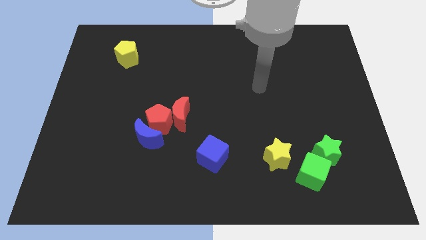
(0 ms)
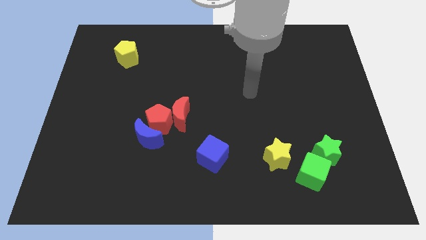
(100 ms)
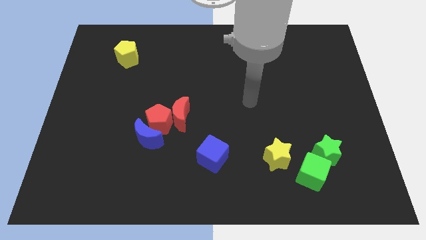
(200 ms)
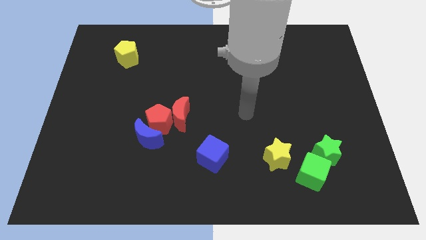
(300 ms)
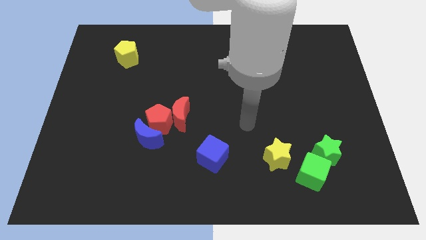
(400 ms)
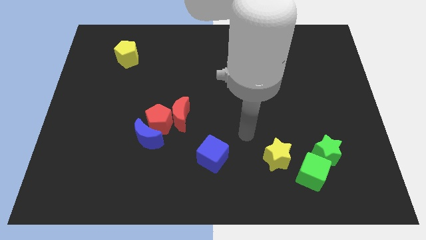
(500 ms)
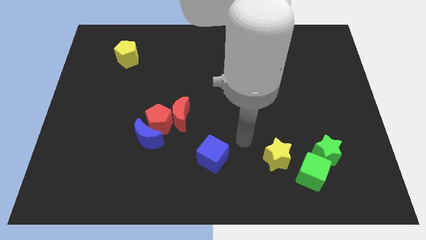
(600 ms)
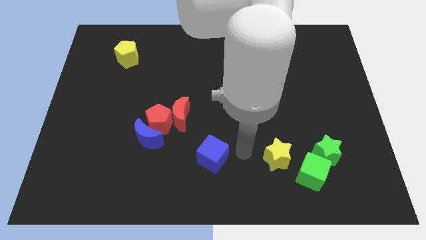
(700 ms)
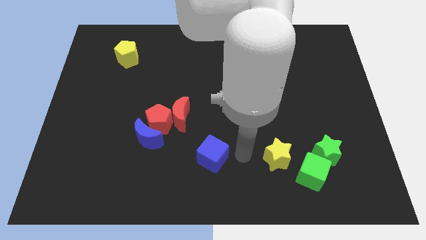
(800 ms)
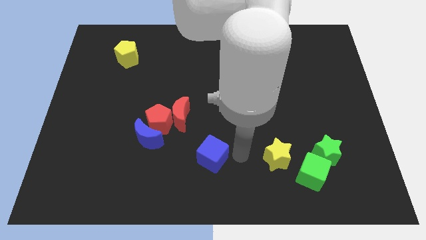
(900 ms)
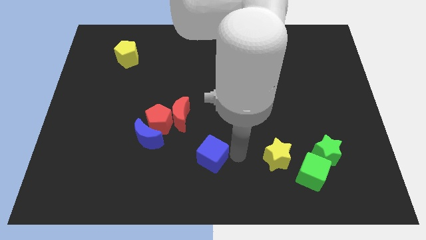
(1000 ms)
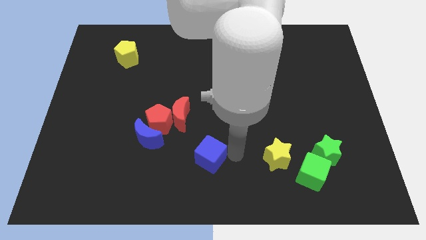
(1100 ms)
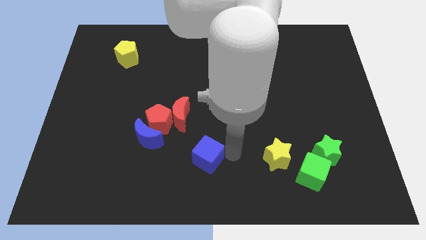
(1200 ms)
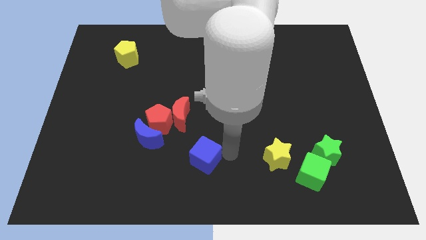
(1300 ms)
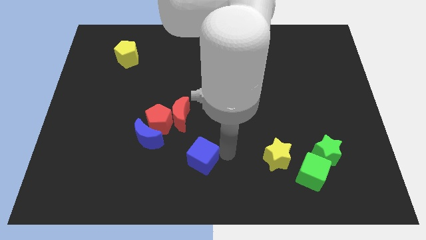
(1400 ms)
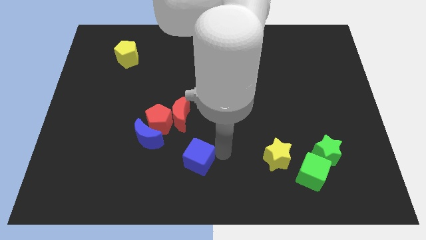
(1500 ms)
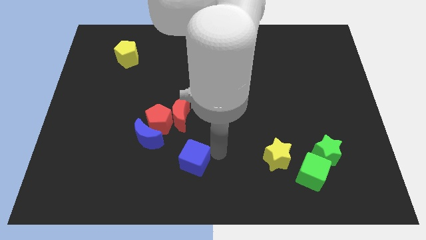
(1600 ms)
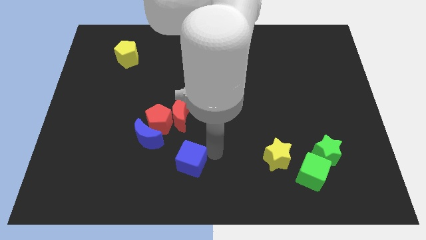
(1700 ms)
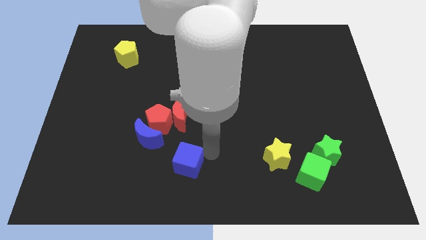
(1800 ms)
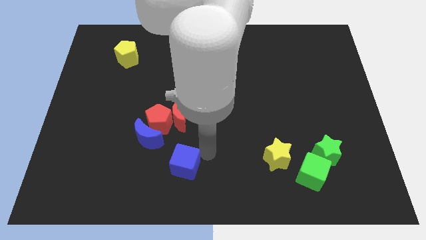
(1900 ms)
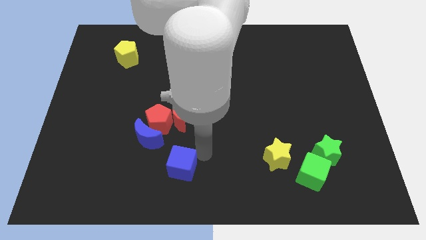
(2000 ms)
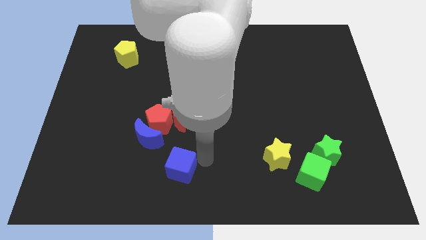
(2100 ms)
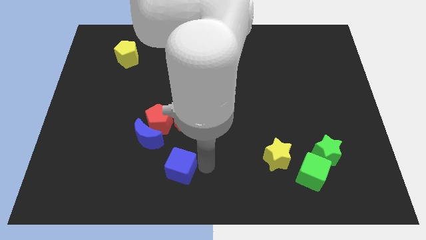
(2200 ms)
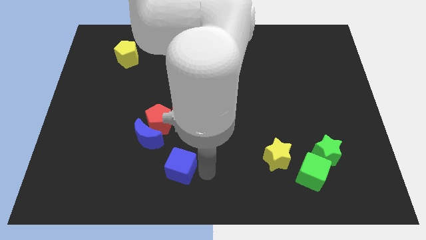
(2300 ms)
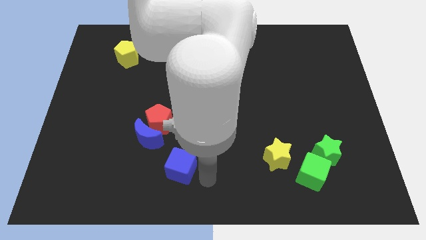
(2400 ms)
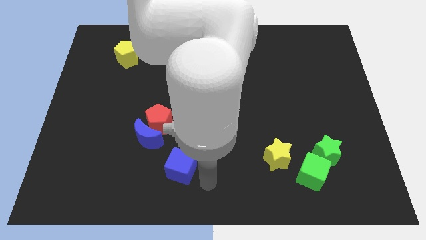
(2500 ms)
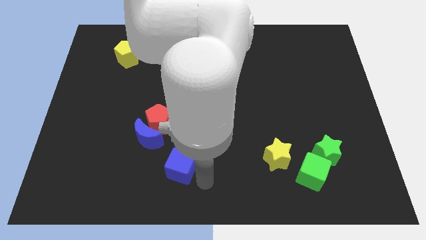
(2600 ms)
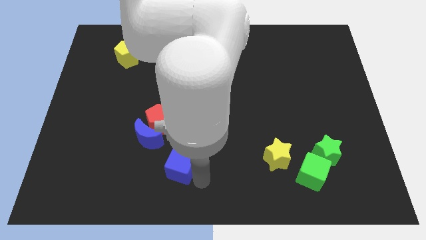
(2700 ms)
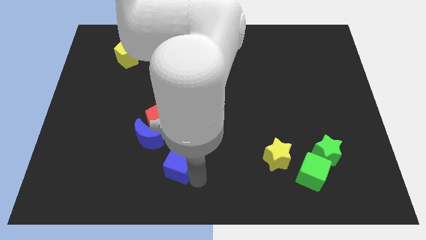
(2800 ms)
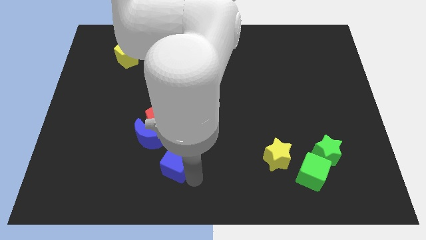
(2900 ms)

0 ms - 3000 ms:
slide the blue cube to the left somewhat

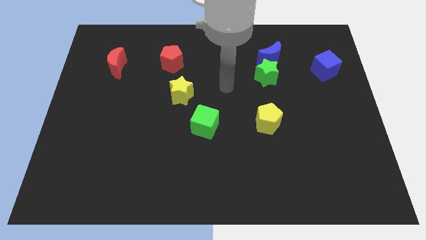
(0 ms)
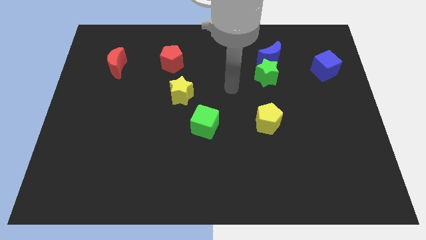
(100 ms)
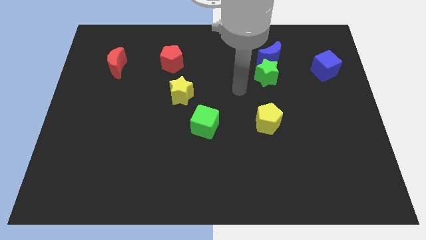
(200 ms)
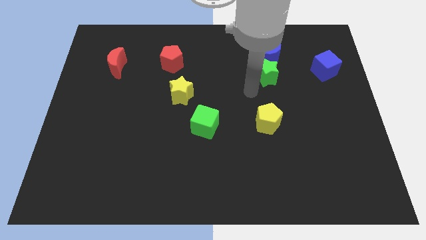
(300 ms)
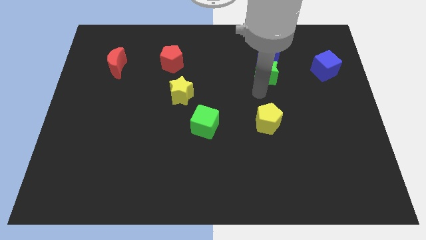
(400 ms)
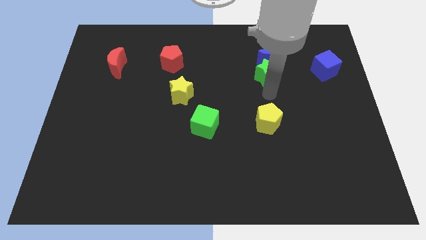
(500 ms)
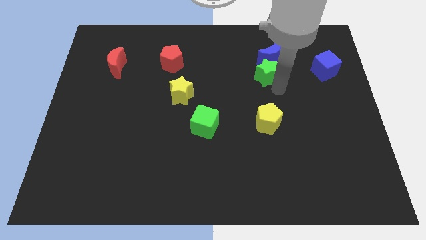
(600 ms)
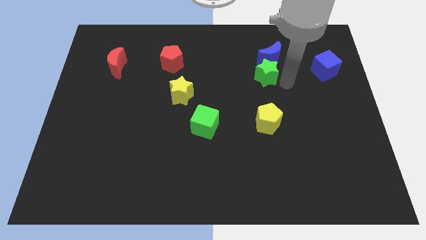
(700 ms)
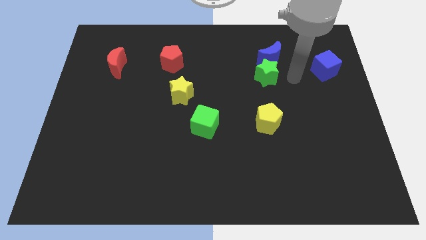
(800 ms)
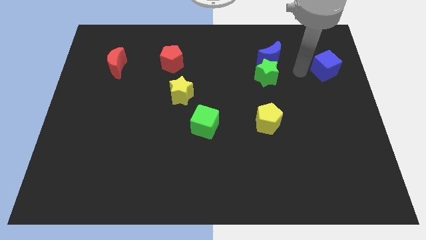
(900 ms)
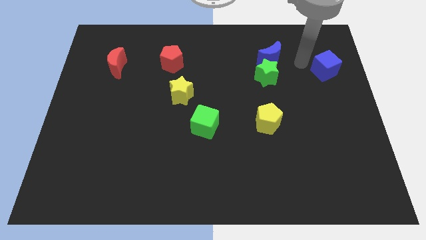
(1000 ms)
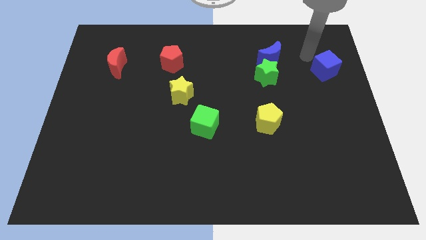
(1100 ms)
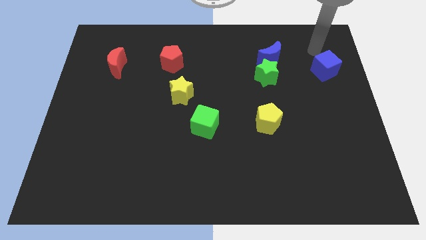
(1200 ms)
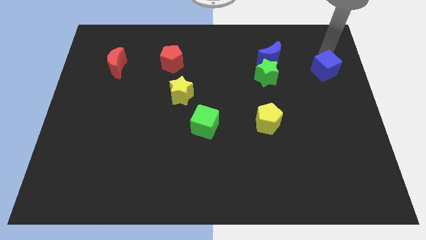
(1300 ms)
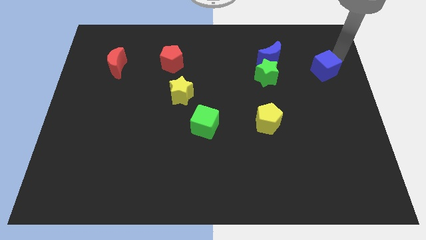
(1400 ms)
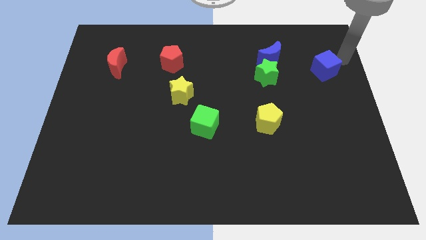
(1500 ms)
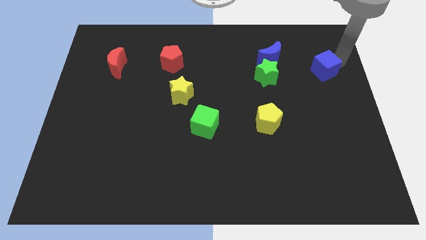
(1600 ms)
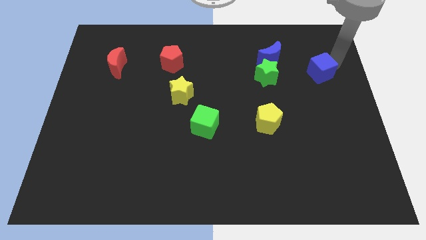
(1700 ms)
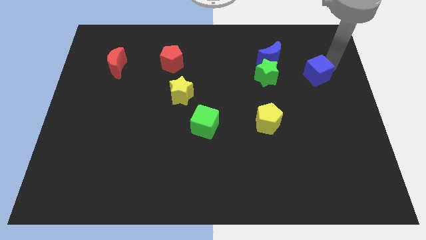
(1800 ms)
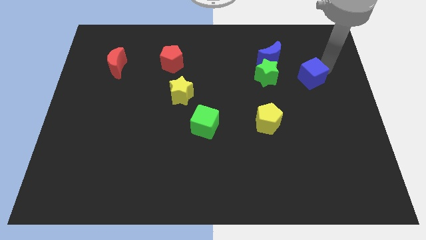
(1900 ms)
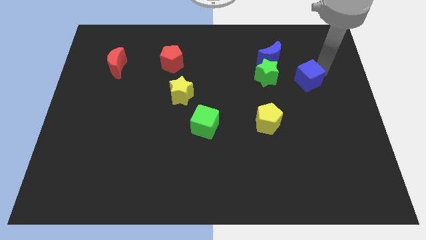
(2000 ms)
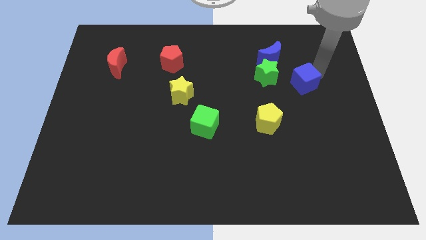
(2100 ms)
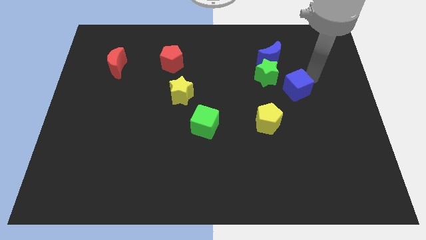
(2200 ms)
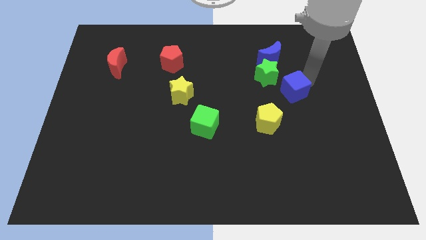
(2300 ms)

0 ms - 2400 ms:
slide the blue cube a little to the left

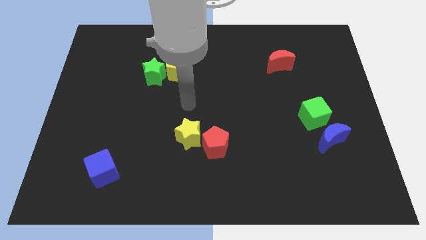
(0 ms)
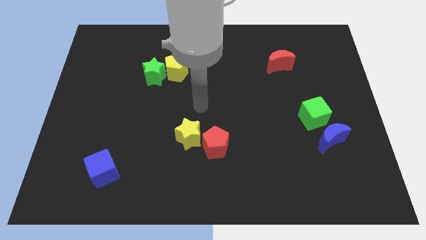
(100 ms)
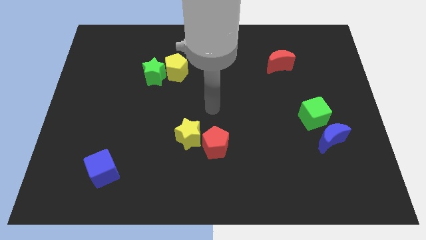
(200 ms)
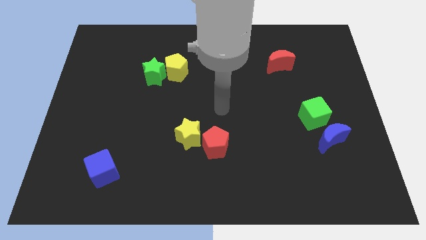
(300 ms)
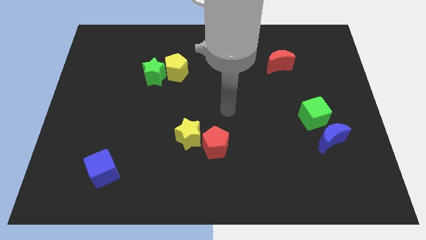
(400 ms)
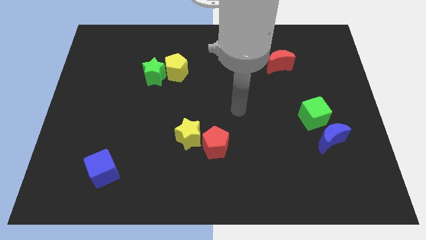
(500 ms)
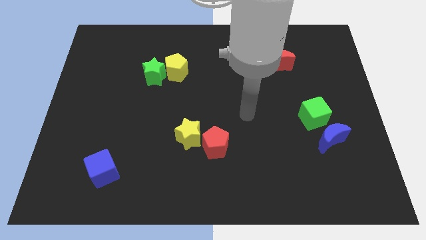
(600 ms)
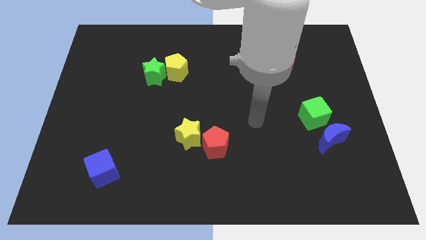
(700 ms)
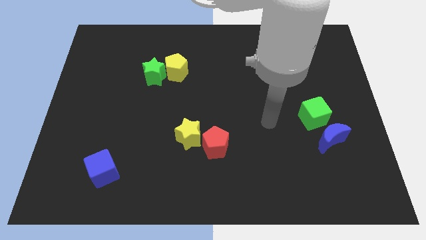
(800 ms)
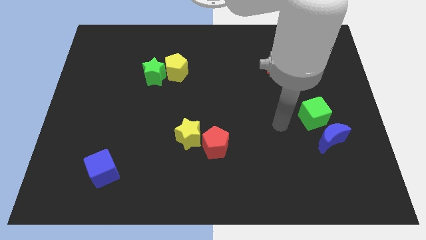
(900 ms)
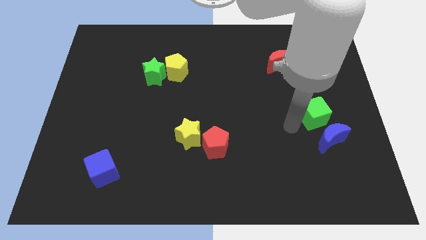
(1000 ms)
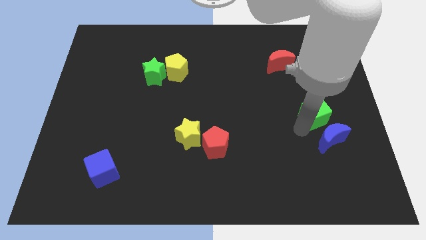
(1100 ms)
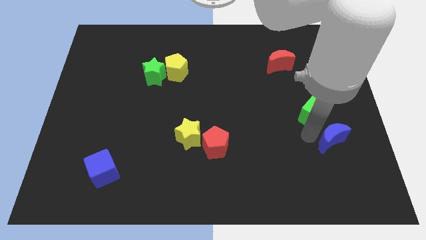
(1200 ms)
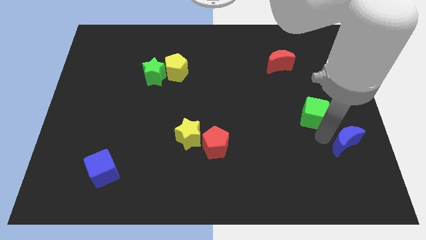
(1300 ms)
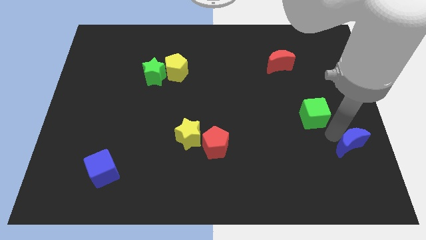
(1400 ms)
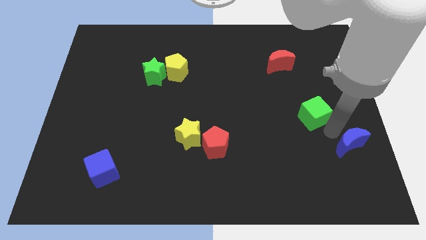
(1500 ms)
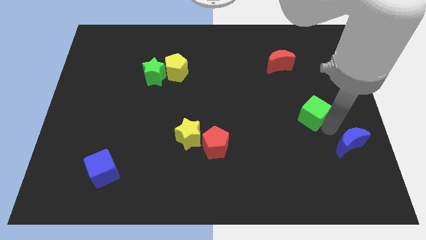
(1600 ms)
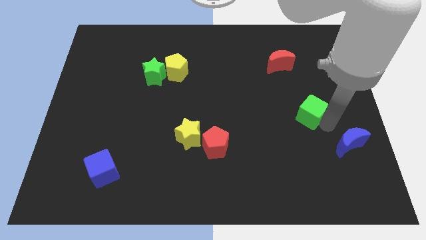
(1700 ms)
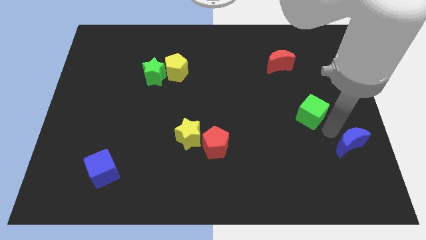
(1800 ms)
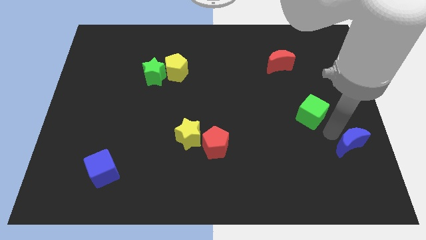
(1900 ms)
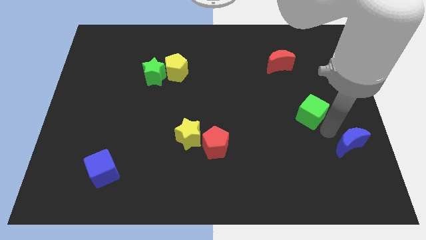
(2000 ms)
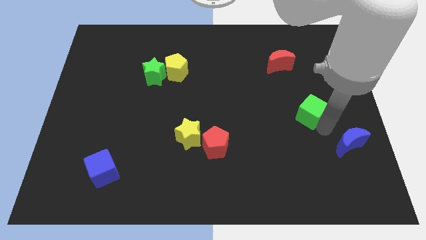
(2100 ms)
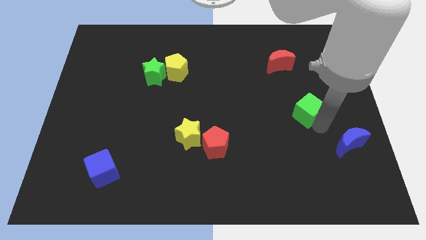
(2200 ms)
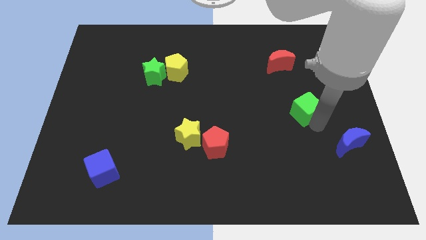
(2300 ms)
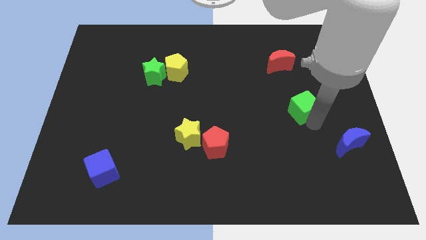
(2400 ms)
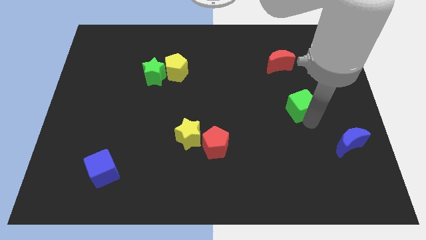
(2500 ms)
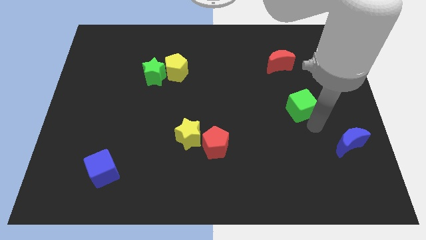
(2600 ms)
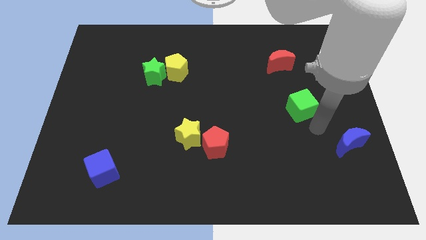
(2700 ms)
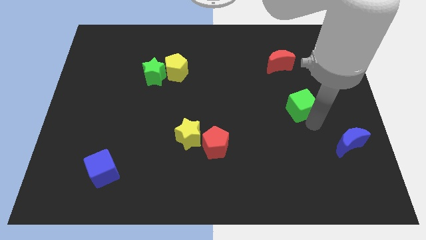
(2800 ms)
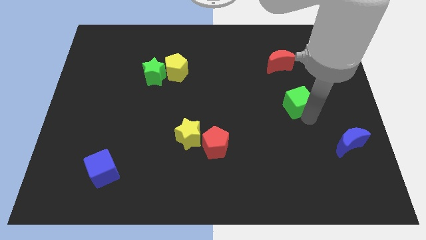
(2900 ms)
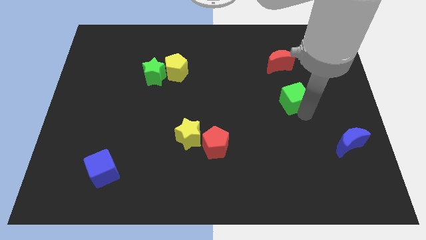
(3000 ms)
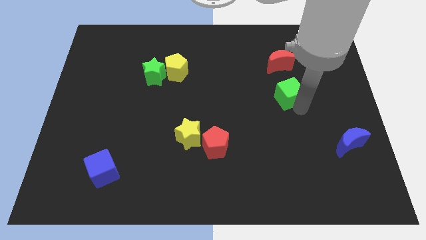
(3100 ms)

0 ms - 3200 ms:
move the green cube up and to the left diagonally a bit
